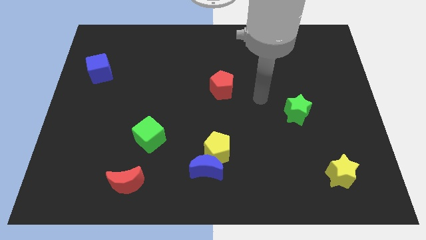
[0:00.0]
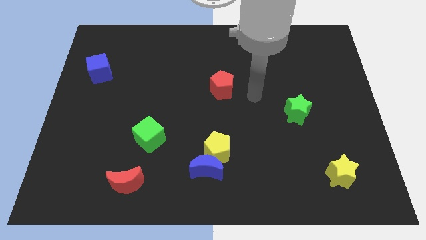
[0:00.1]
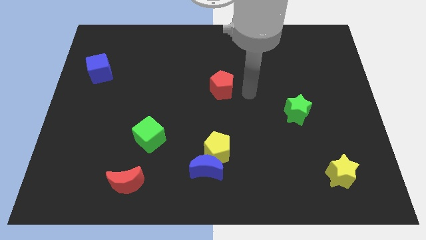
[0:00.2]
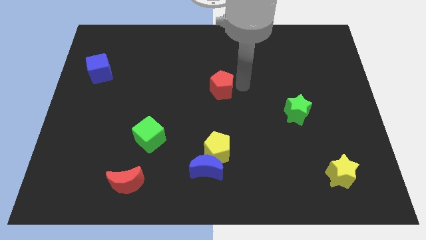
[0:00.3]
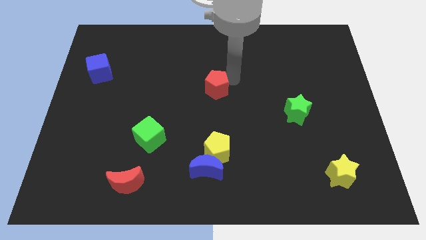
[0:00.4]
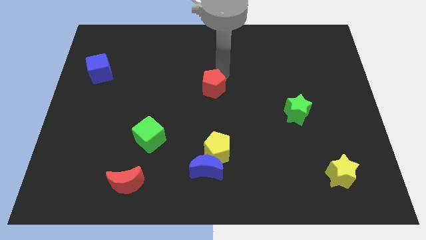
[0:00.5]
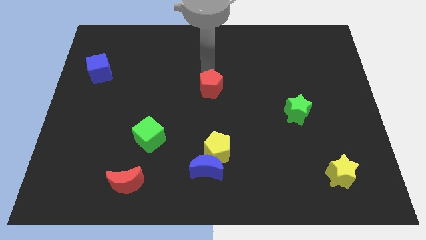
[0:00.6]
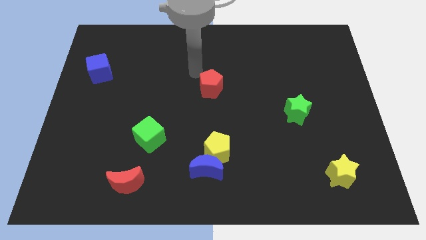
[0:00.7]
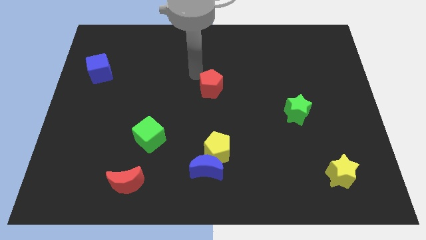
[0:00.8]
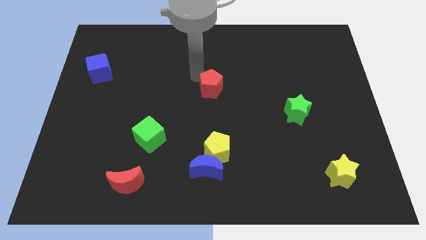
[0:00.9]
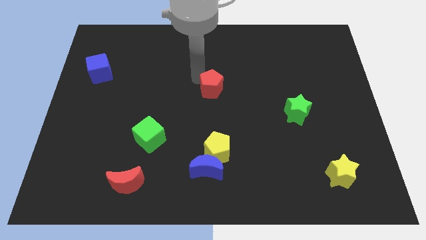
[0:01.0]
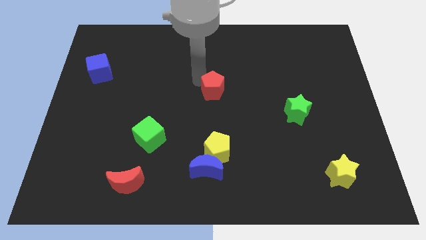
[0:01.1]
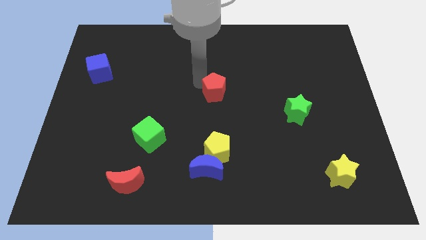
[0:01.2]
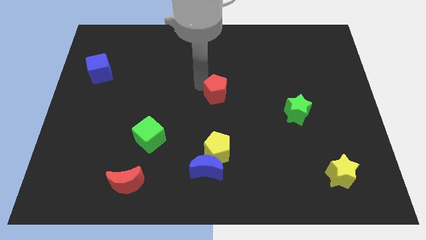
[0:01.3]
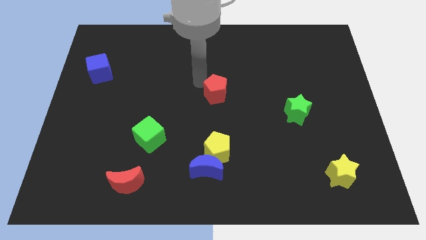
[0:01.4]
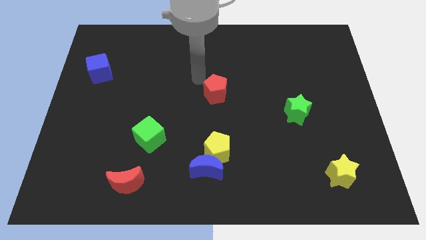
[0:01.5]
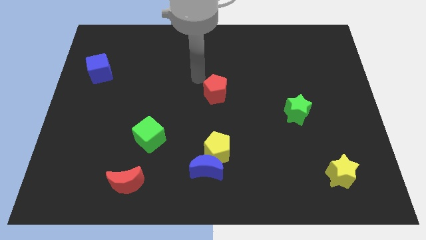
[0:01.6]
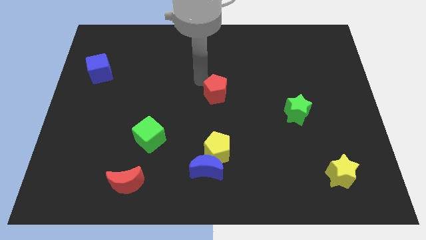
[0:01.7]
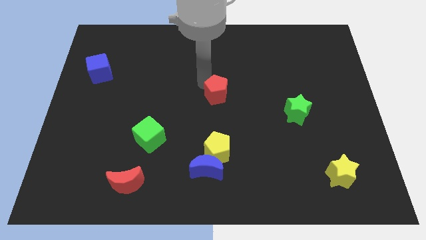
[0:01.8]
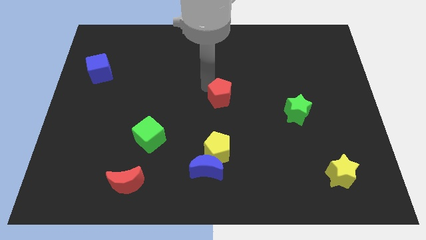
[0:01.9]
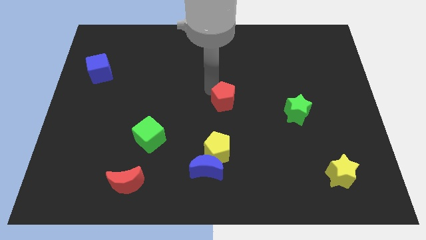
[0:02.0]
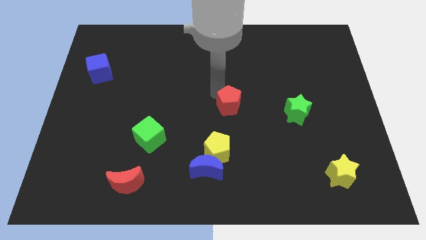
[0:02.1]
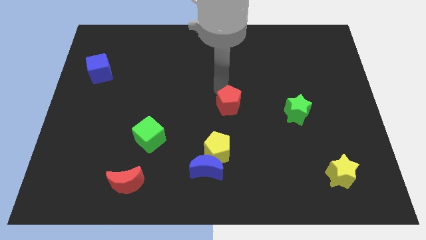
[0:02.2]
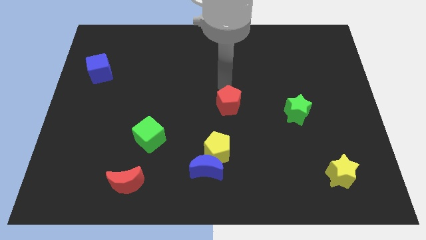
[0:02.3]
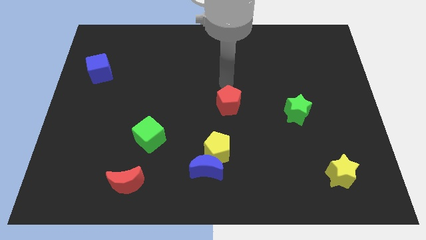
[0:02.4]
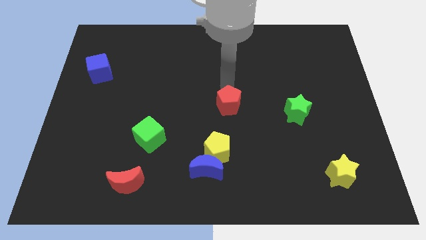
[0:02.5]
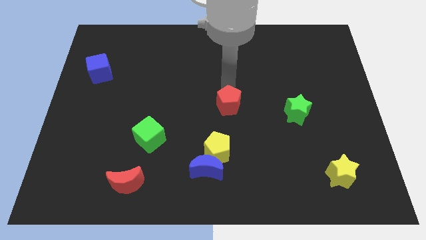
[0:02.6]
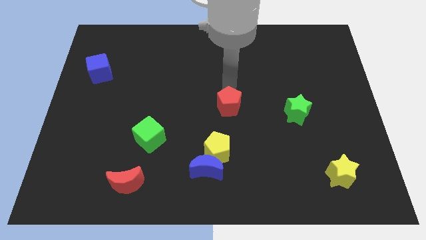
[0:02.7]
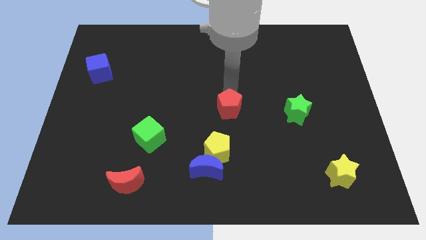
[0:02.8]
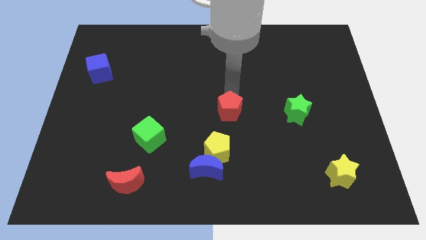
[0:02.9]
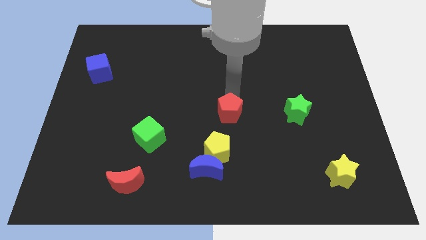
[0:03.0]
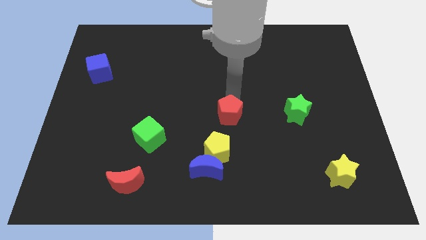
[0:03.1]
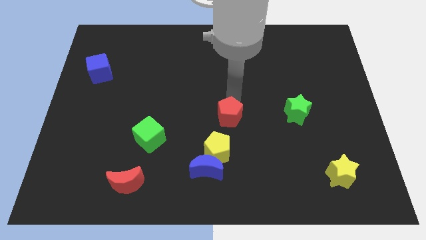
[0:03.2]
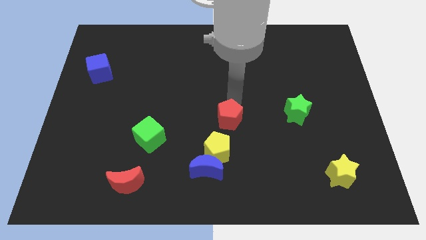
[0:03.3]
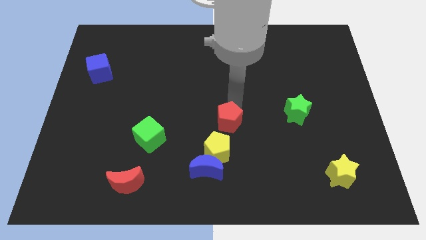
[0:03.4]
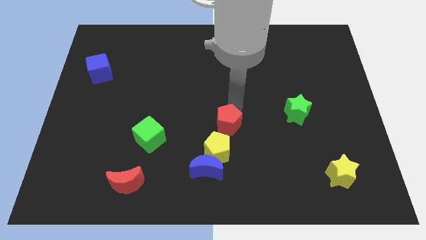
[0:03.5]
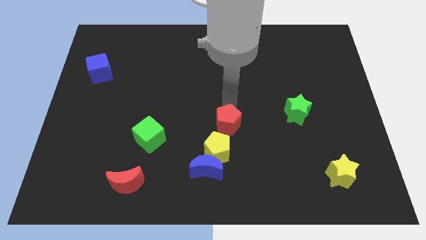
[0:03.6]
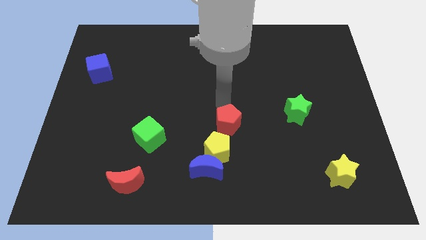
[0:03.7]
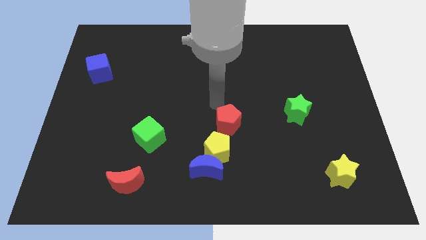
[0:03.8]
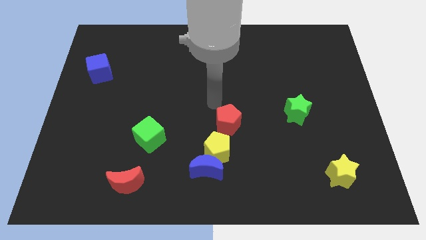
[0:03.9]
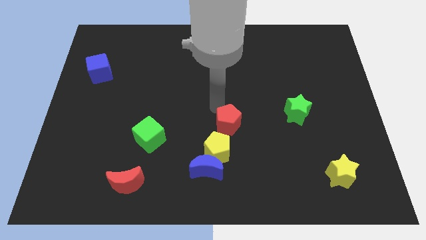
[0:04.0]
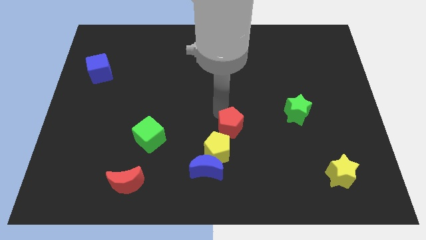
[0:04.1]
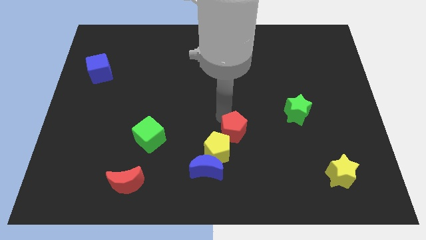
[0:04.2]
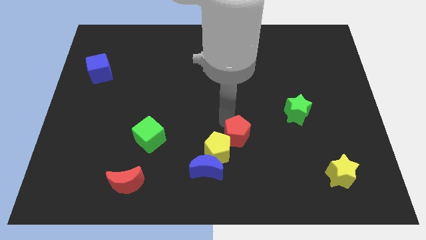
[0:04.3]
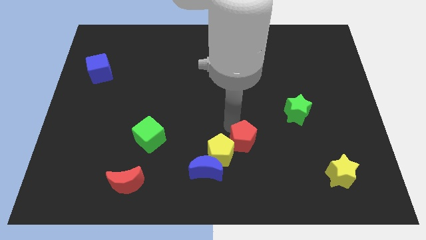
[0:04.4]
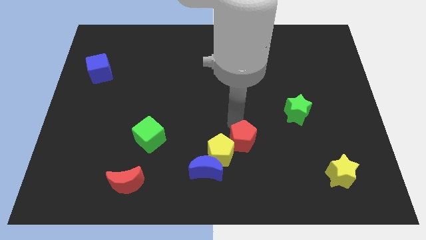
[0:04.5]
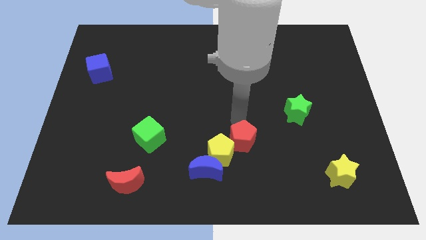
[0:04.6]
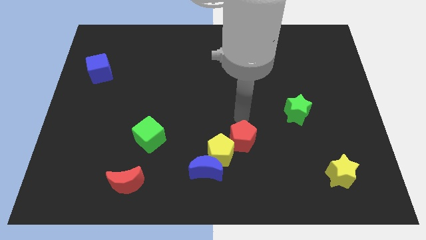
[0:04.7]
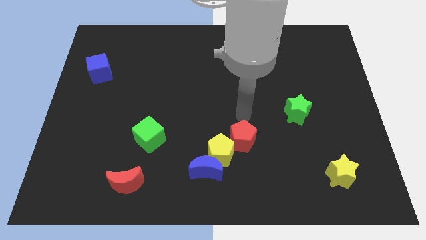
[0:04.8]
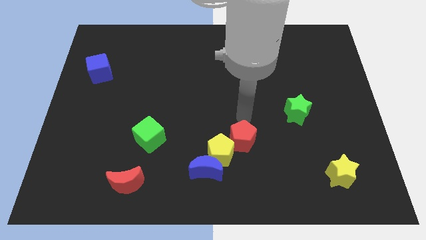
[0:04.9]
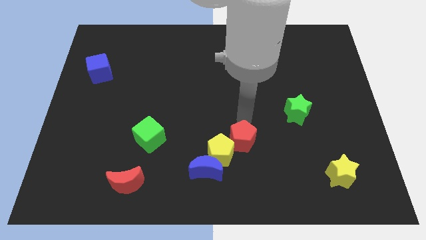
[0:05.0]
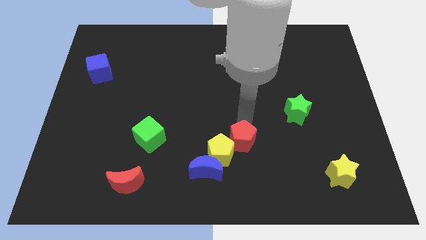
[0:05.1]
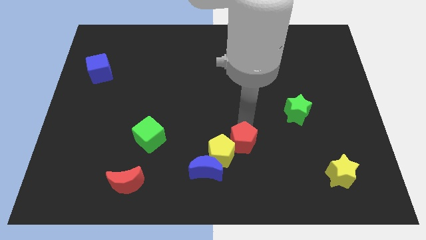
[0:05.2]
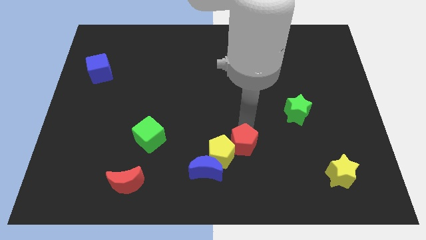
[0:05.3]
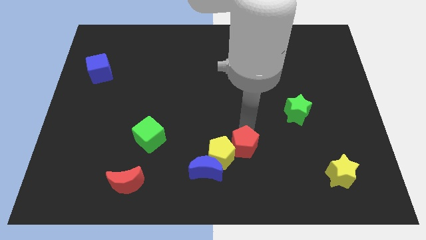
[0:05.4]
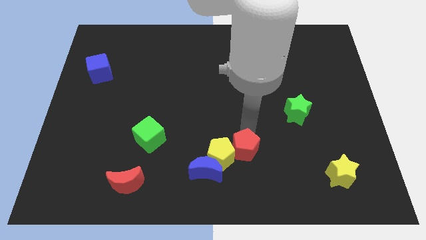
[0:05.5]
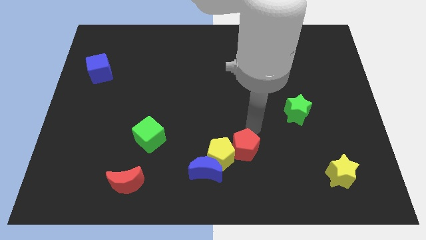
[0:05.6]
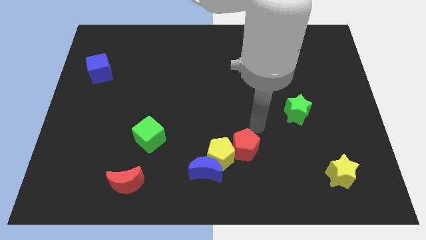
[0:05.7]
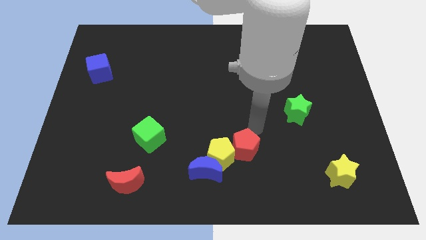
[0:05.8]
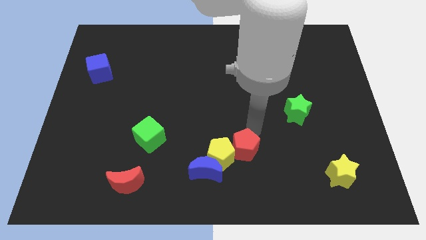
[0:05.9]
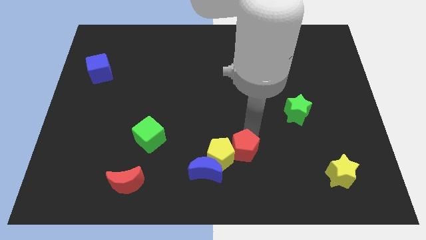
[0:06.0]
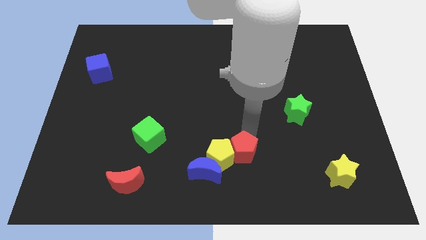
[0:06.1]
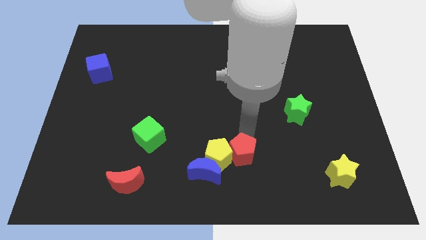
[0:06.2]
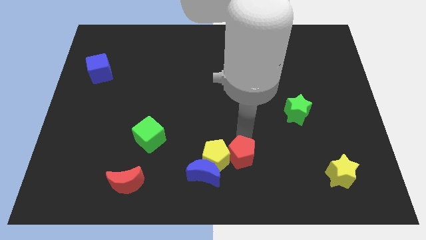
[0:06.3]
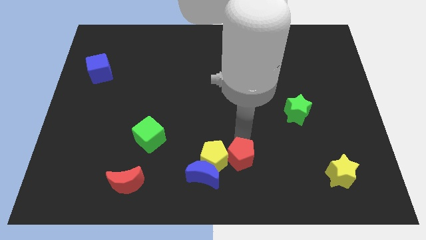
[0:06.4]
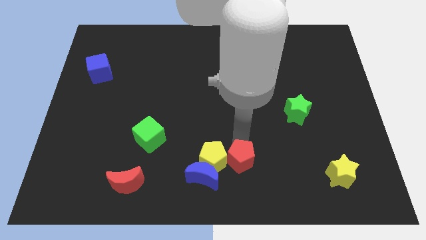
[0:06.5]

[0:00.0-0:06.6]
push the red pentagon to the bottom

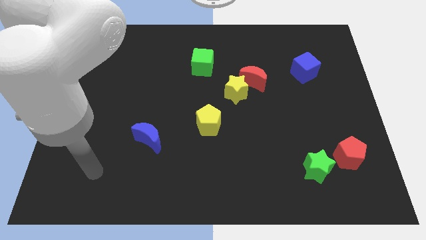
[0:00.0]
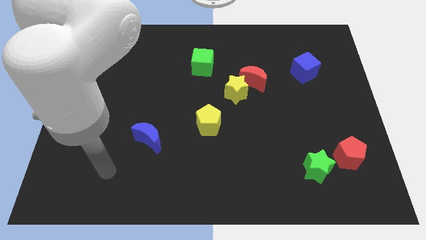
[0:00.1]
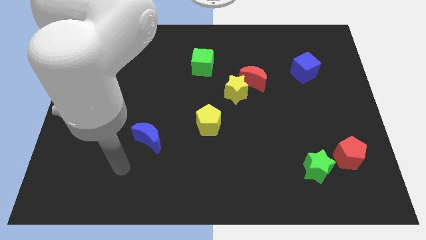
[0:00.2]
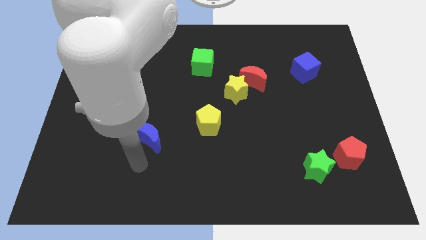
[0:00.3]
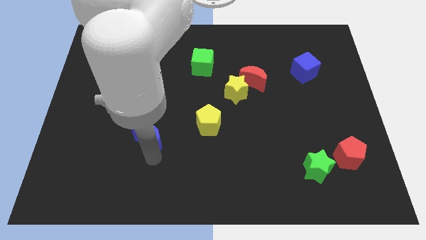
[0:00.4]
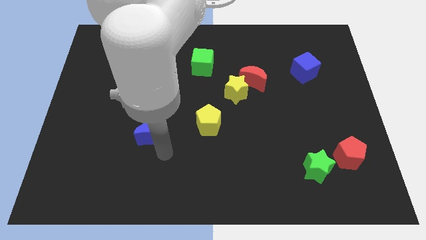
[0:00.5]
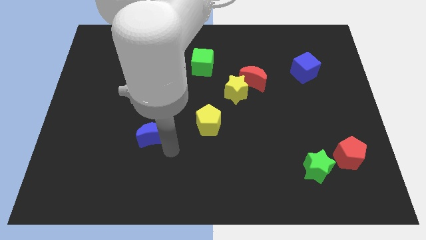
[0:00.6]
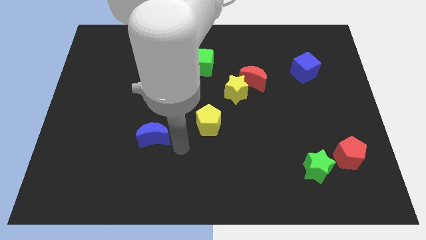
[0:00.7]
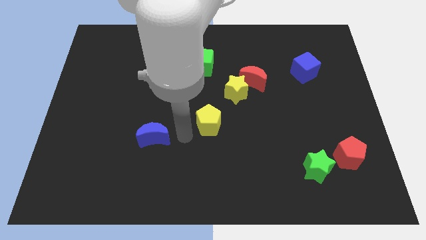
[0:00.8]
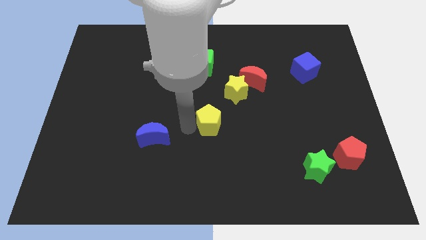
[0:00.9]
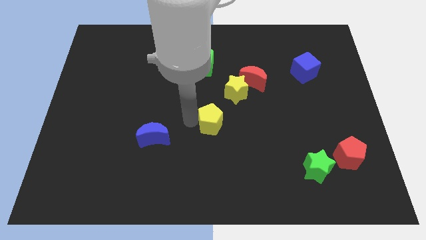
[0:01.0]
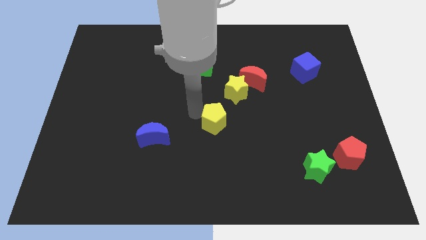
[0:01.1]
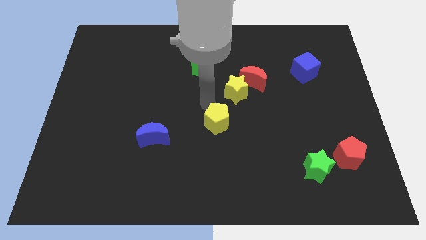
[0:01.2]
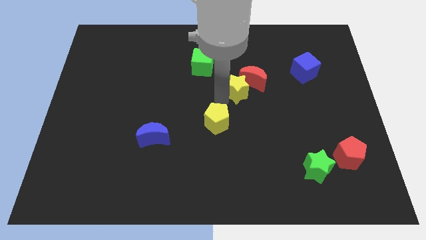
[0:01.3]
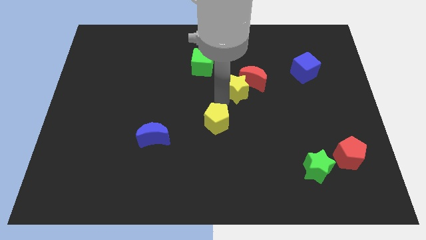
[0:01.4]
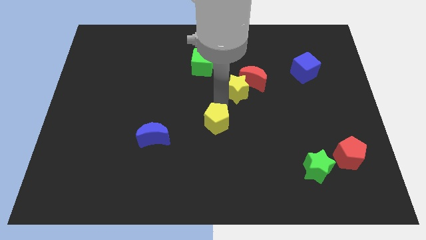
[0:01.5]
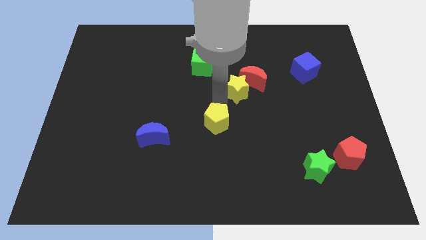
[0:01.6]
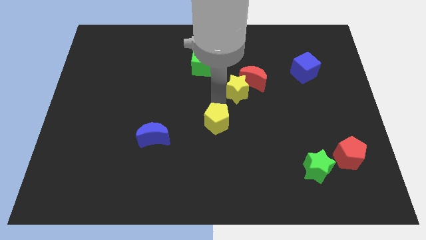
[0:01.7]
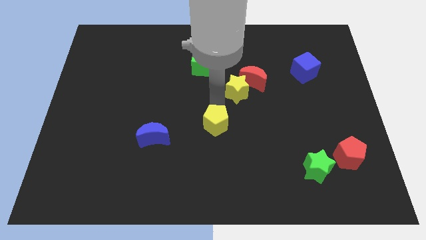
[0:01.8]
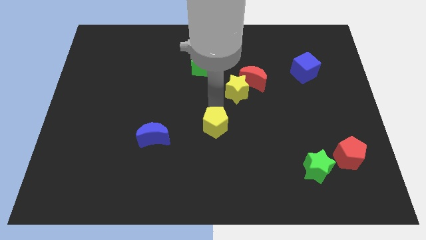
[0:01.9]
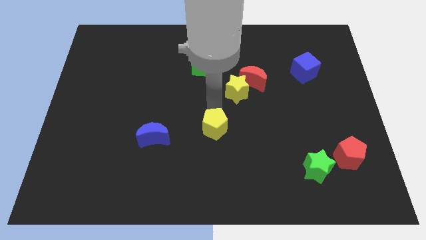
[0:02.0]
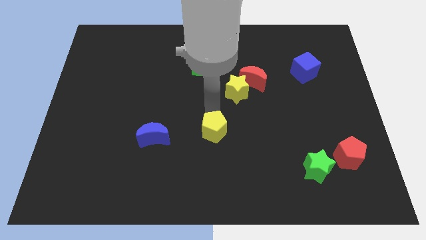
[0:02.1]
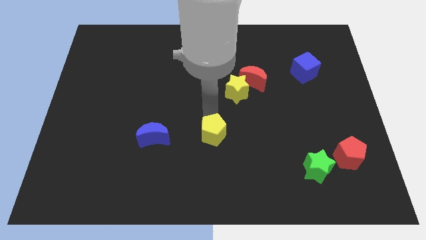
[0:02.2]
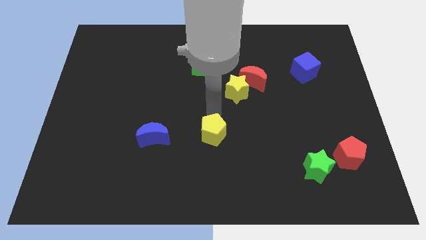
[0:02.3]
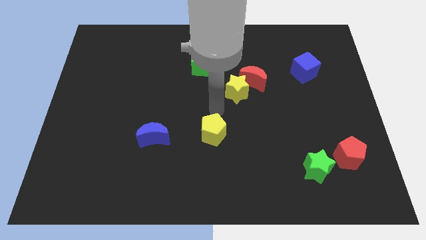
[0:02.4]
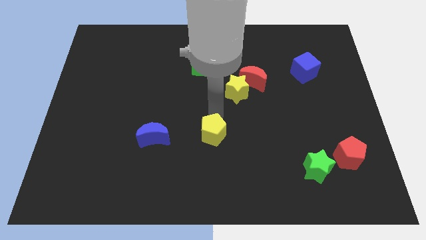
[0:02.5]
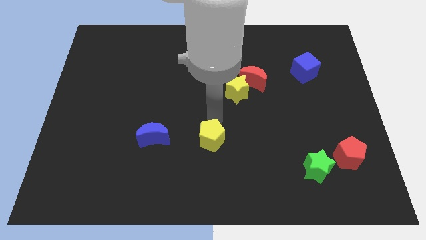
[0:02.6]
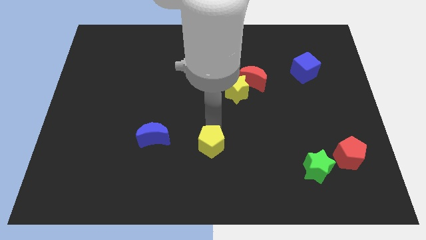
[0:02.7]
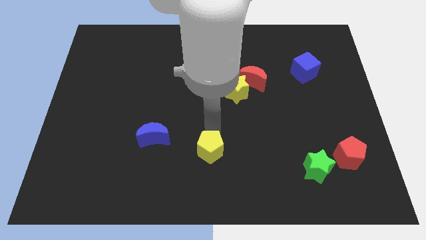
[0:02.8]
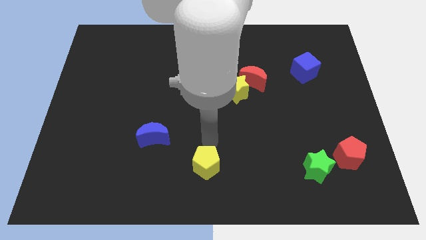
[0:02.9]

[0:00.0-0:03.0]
move the yellow pentagon to the bottom
